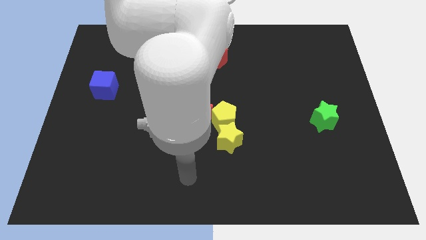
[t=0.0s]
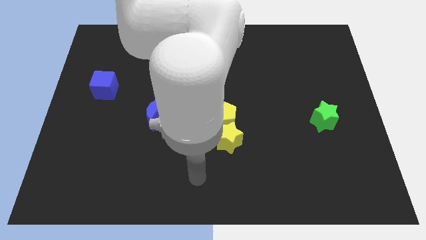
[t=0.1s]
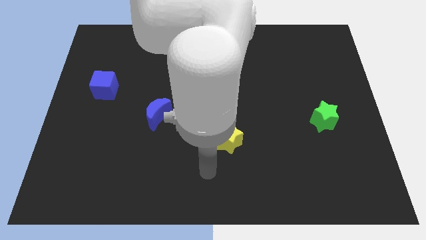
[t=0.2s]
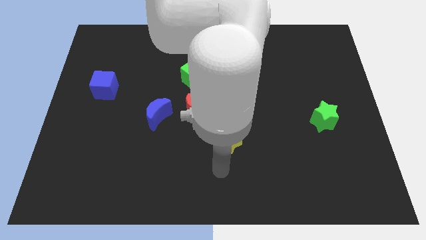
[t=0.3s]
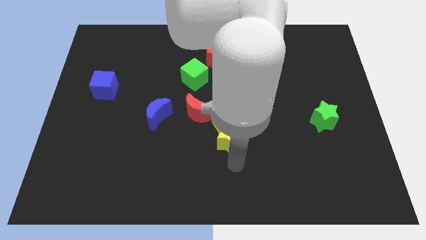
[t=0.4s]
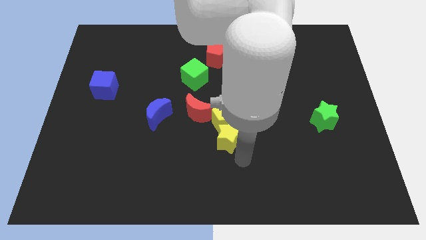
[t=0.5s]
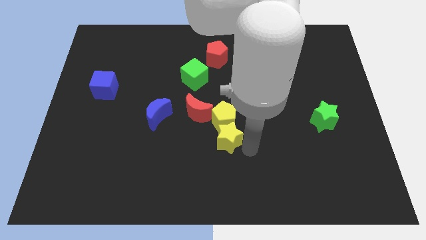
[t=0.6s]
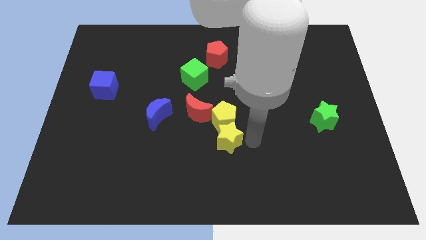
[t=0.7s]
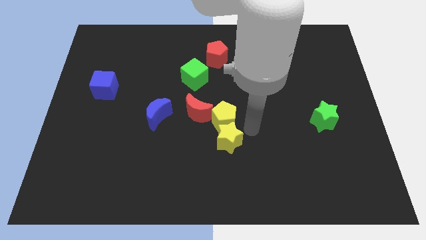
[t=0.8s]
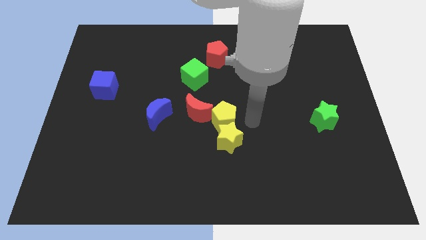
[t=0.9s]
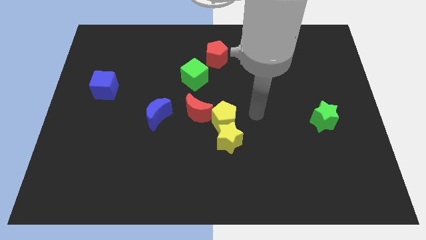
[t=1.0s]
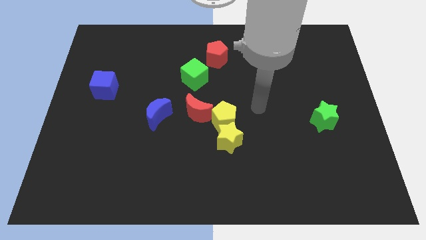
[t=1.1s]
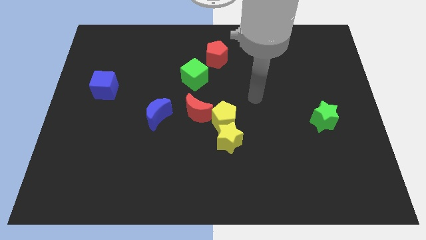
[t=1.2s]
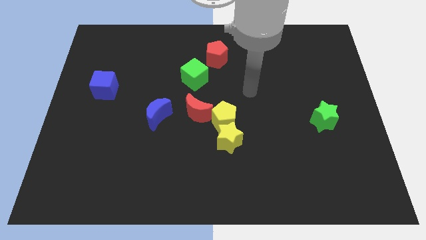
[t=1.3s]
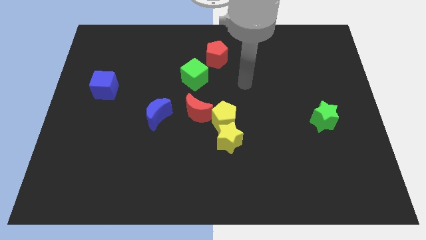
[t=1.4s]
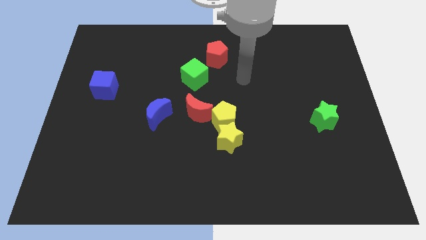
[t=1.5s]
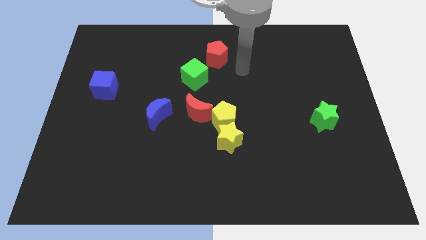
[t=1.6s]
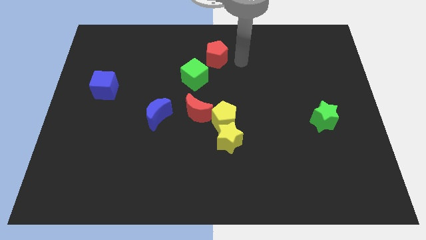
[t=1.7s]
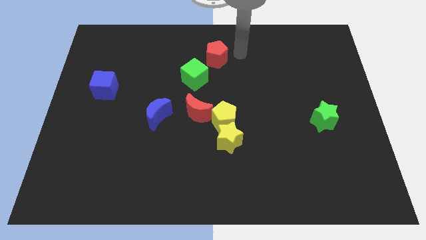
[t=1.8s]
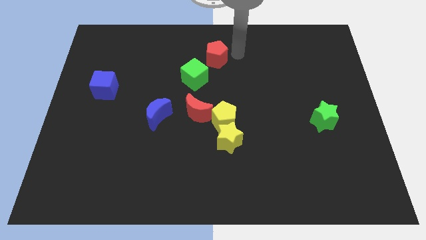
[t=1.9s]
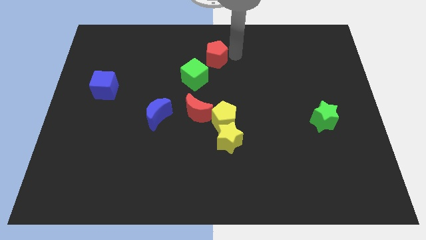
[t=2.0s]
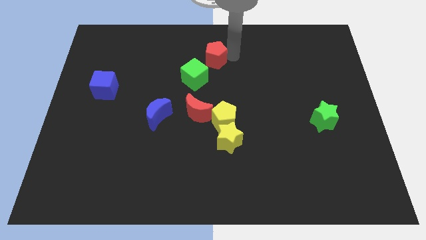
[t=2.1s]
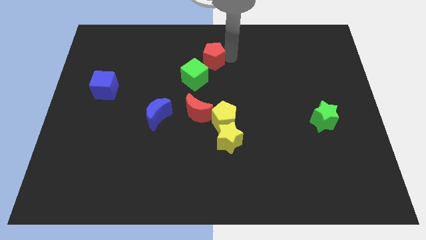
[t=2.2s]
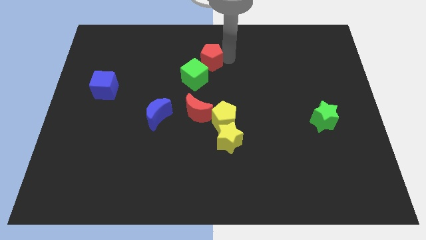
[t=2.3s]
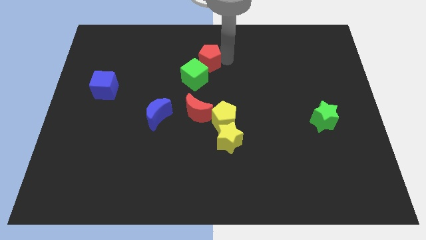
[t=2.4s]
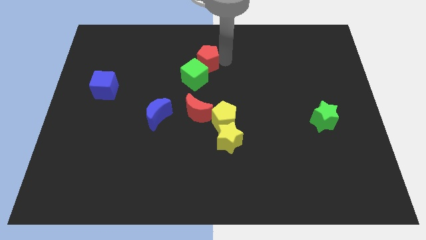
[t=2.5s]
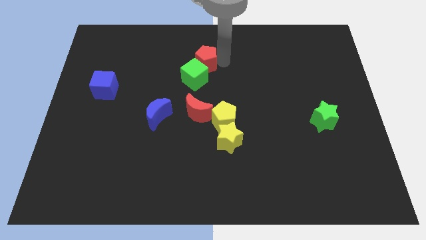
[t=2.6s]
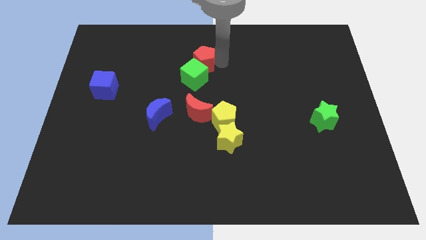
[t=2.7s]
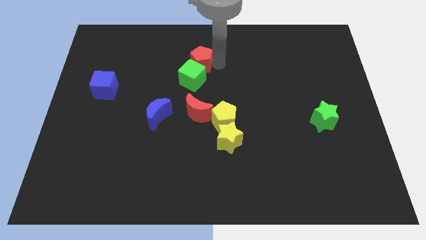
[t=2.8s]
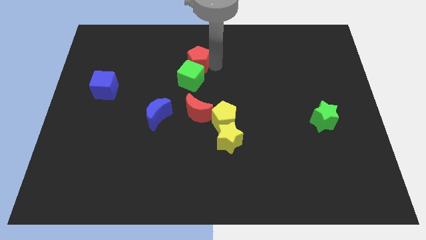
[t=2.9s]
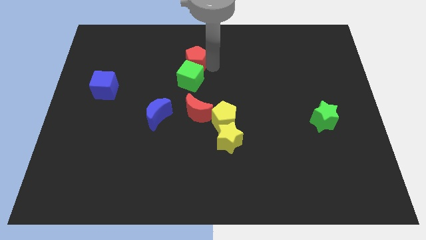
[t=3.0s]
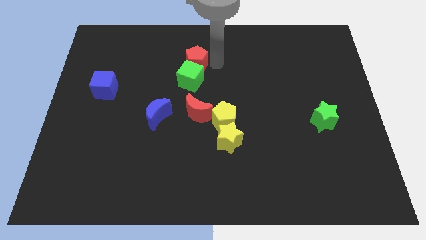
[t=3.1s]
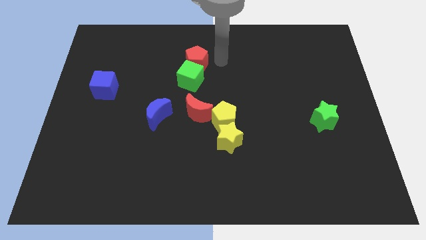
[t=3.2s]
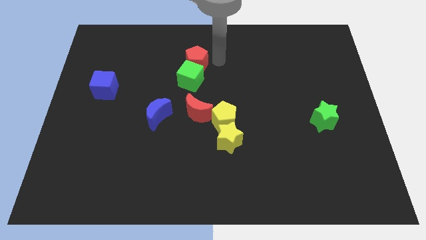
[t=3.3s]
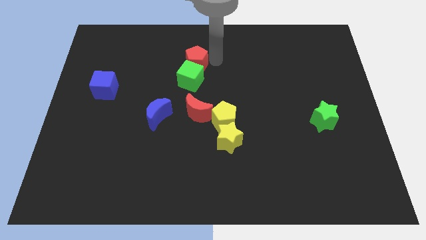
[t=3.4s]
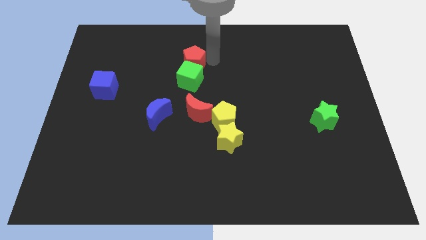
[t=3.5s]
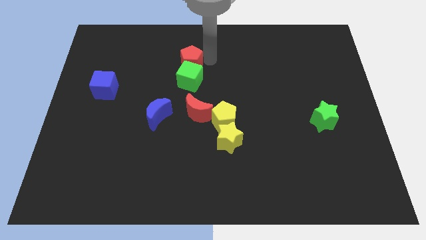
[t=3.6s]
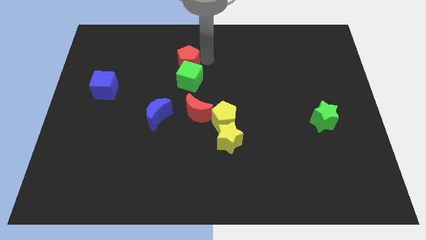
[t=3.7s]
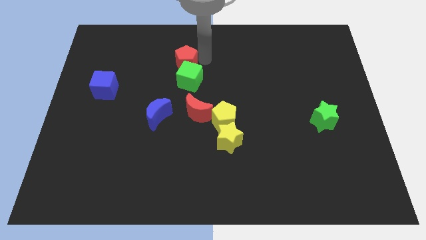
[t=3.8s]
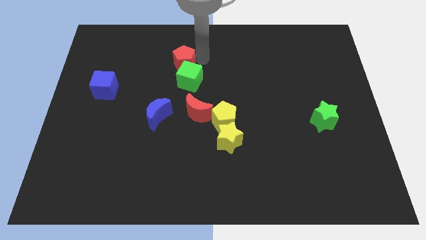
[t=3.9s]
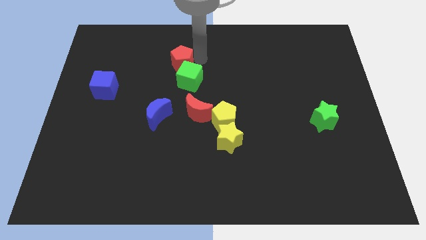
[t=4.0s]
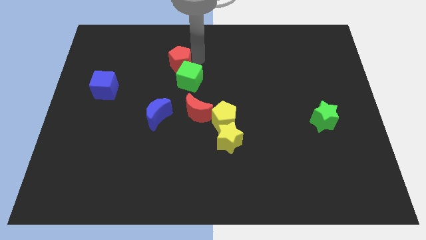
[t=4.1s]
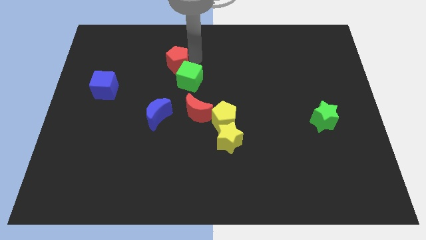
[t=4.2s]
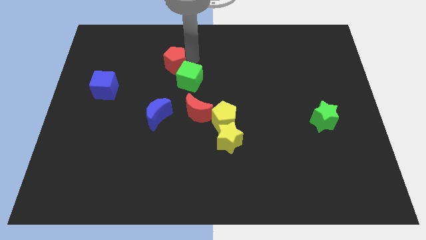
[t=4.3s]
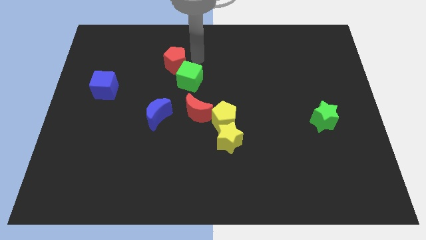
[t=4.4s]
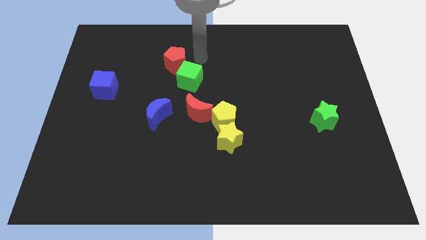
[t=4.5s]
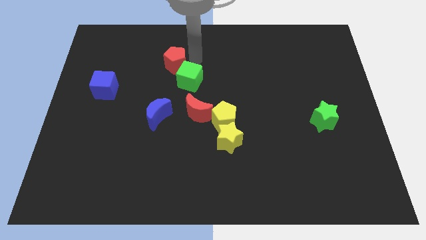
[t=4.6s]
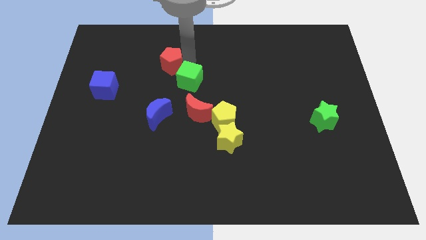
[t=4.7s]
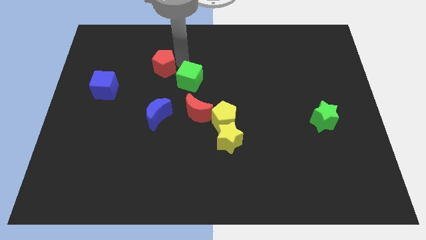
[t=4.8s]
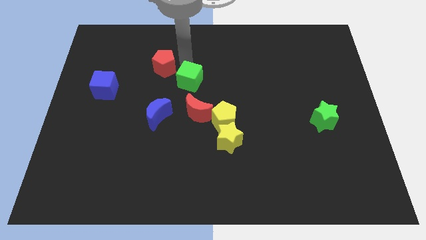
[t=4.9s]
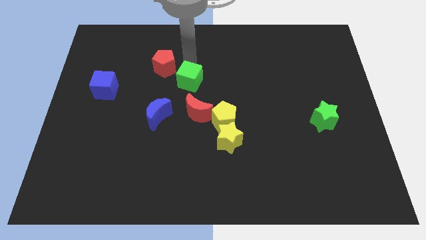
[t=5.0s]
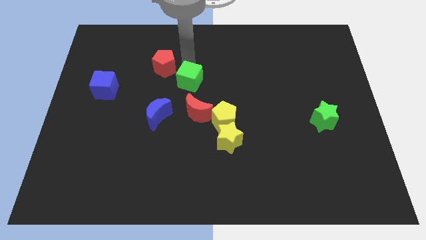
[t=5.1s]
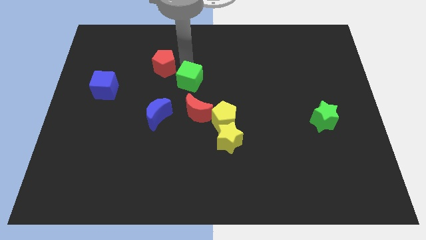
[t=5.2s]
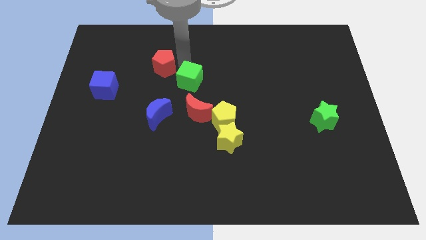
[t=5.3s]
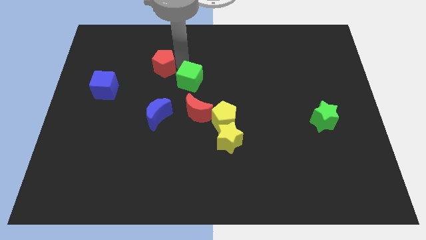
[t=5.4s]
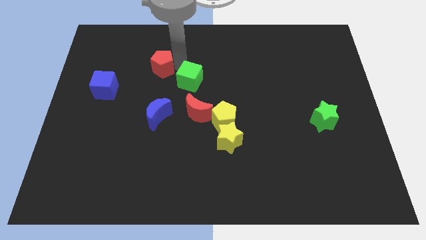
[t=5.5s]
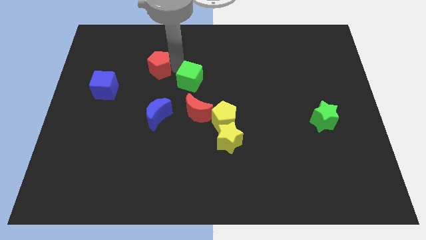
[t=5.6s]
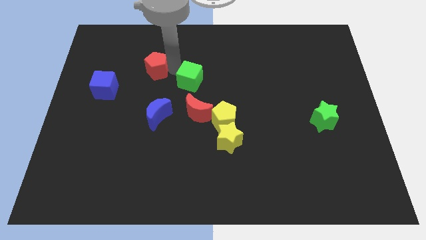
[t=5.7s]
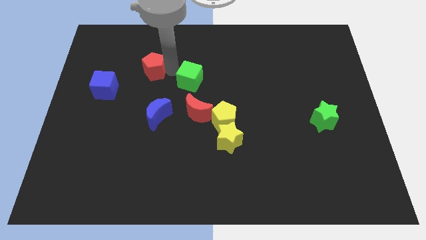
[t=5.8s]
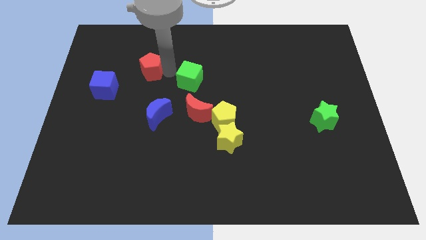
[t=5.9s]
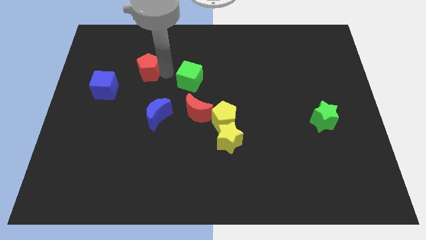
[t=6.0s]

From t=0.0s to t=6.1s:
put the red pentagon to the top right of the blue cube

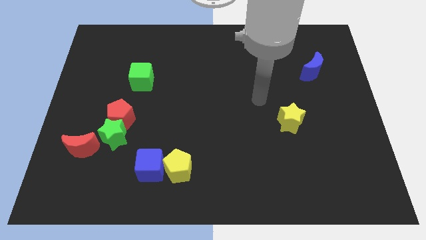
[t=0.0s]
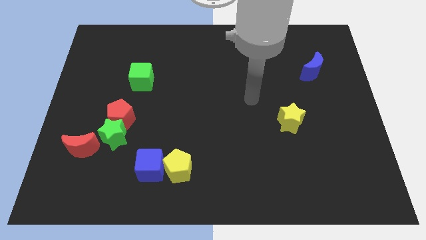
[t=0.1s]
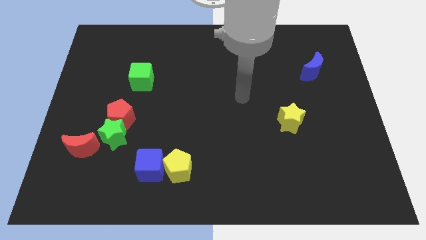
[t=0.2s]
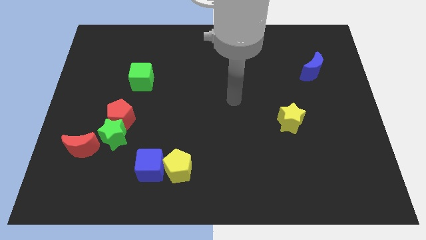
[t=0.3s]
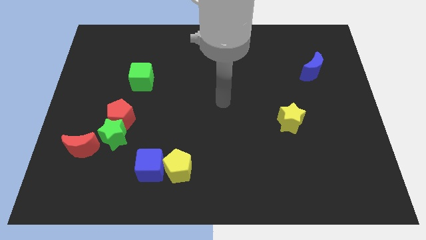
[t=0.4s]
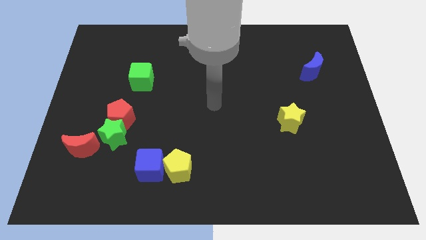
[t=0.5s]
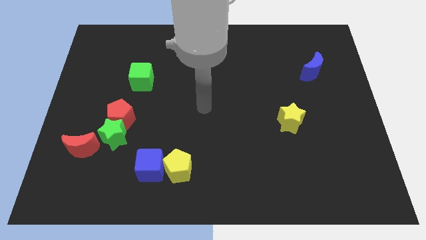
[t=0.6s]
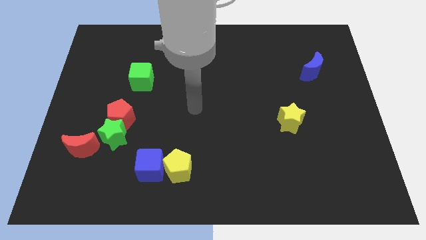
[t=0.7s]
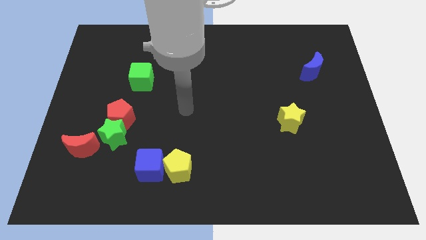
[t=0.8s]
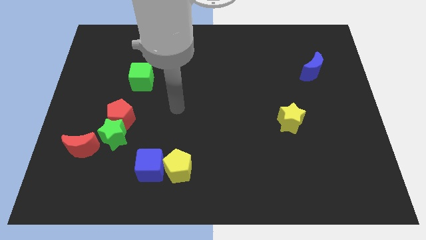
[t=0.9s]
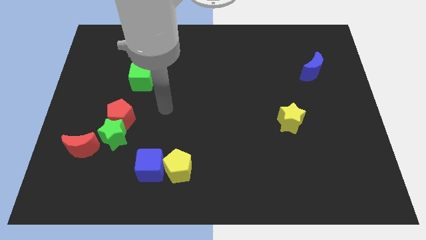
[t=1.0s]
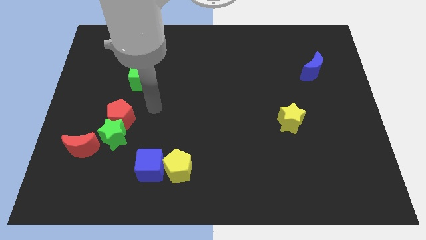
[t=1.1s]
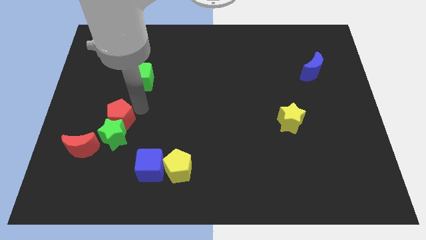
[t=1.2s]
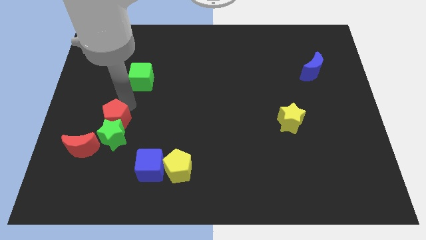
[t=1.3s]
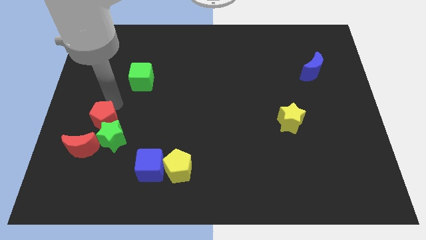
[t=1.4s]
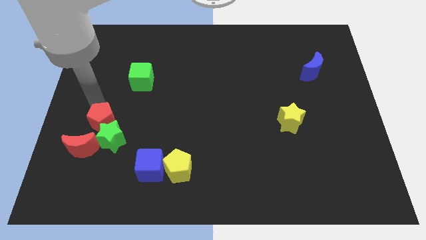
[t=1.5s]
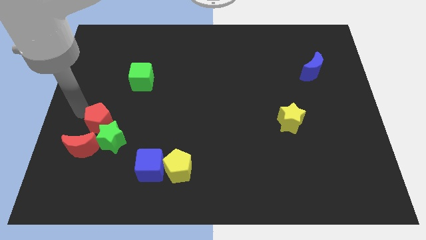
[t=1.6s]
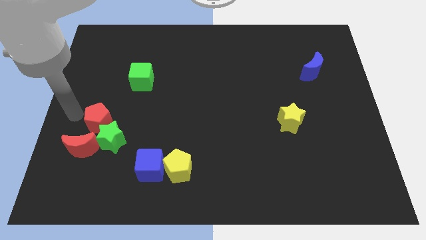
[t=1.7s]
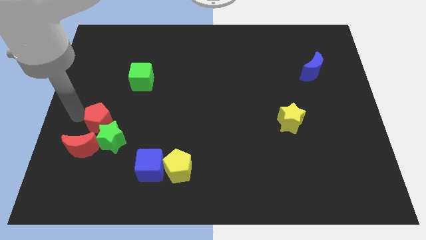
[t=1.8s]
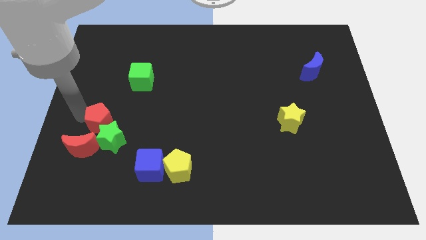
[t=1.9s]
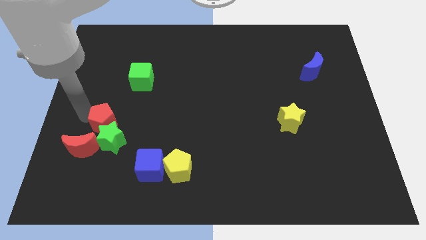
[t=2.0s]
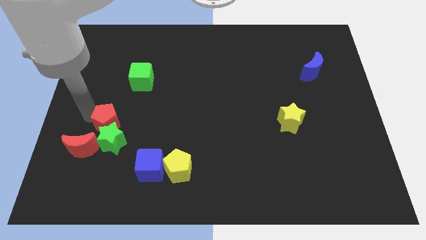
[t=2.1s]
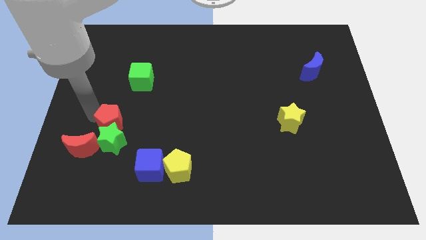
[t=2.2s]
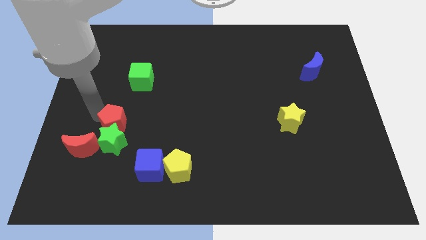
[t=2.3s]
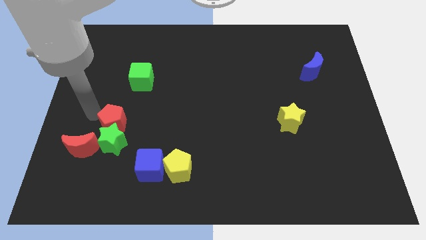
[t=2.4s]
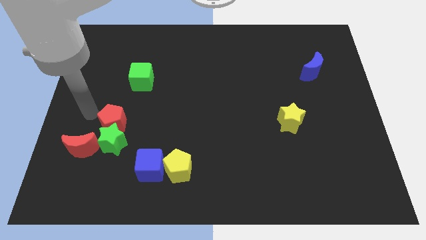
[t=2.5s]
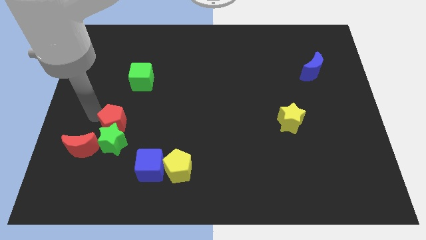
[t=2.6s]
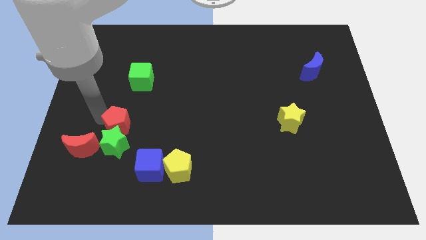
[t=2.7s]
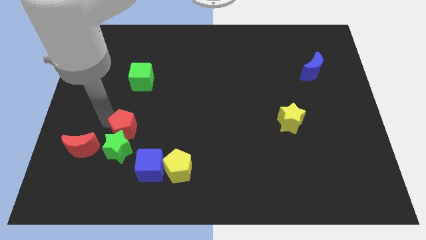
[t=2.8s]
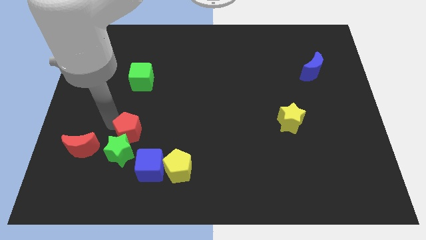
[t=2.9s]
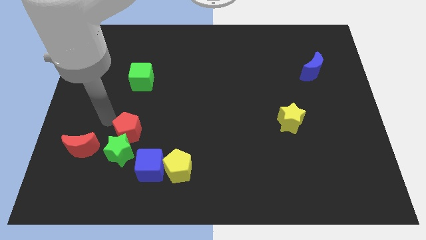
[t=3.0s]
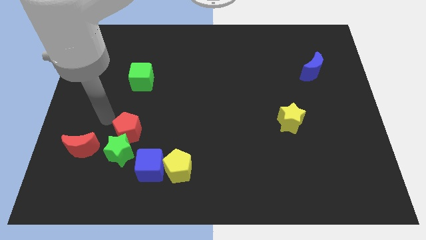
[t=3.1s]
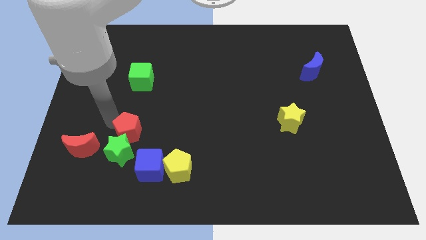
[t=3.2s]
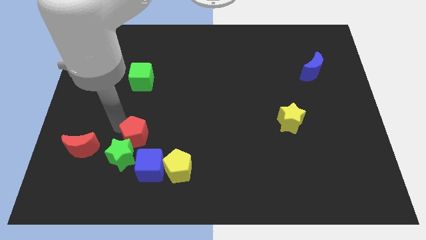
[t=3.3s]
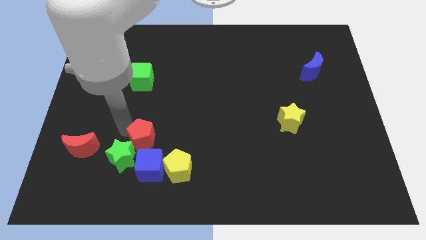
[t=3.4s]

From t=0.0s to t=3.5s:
push the red pentagon to the top left of the yellow pentagon
